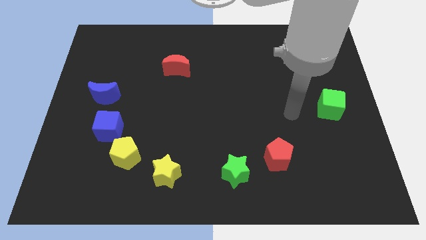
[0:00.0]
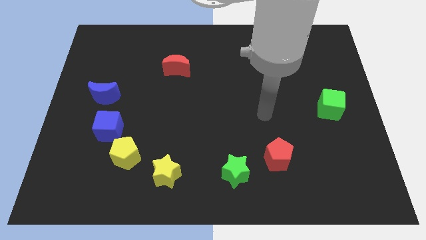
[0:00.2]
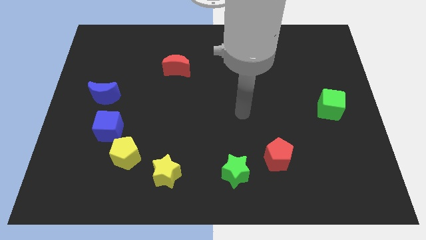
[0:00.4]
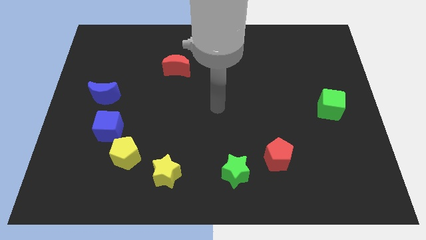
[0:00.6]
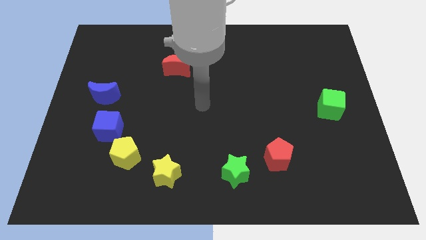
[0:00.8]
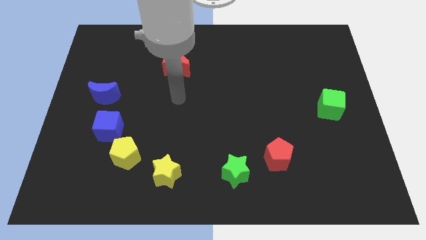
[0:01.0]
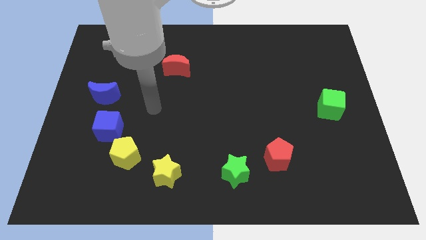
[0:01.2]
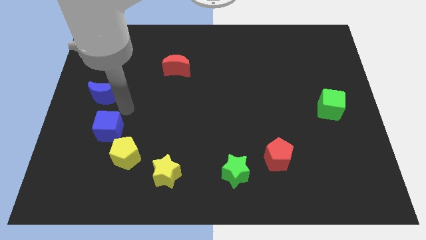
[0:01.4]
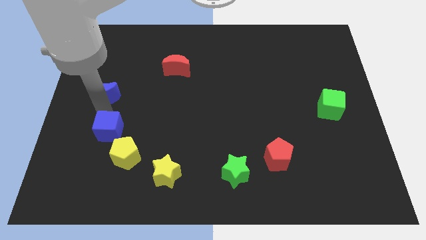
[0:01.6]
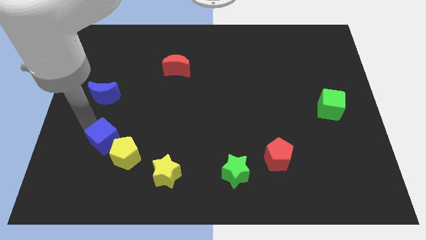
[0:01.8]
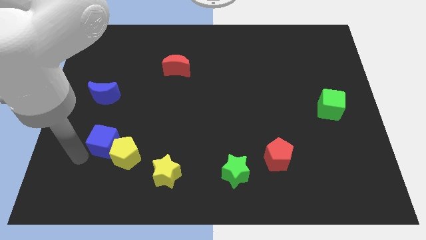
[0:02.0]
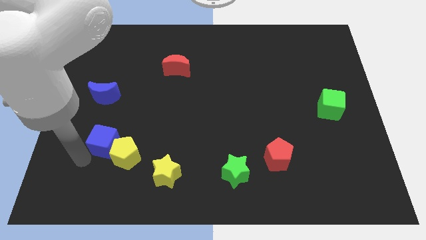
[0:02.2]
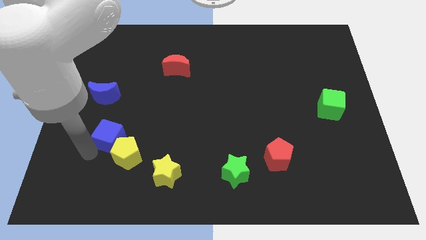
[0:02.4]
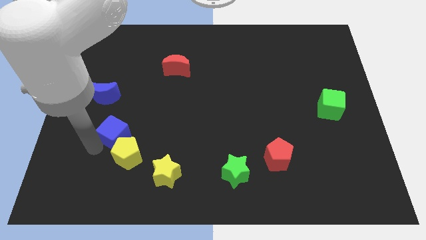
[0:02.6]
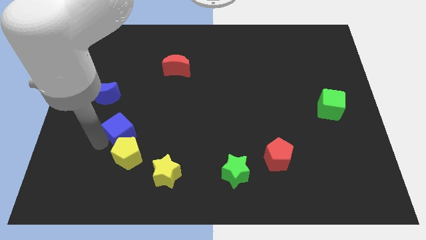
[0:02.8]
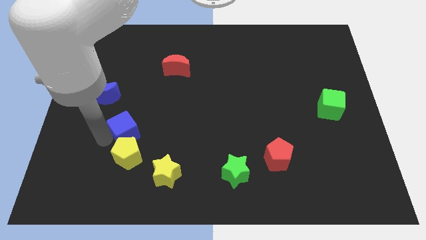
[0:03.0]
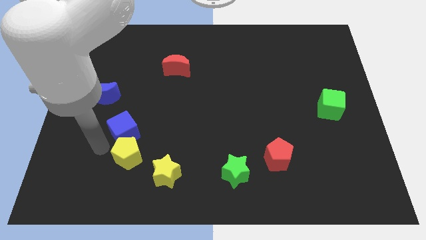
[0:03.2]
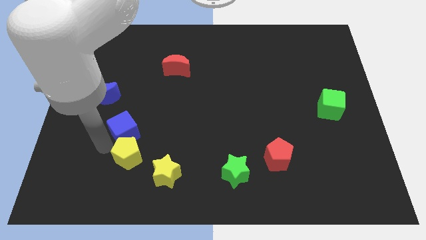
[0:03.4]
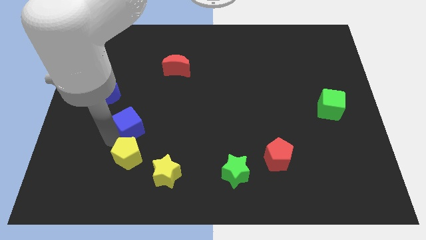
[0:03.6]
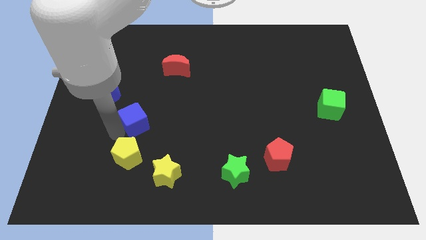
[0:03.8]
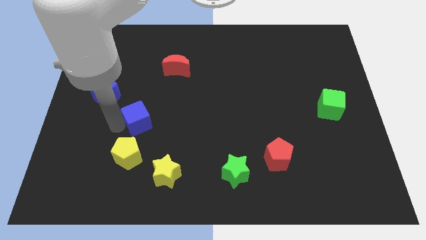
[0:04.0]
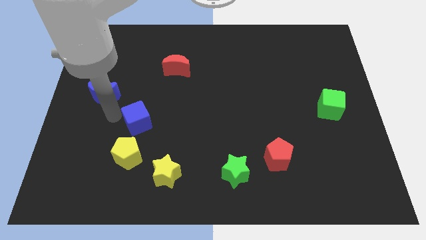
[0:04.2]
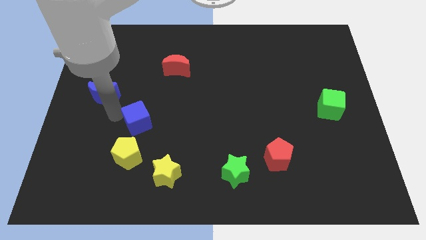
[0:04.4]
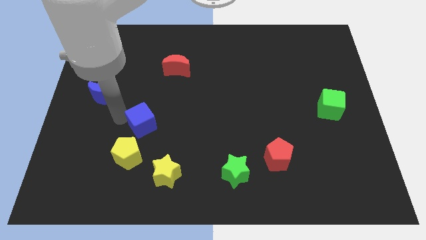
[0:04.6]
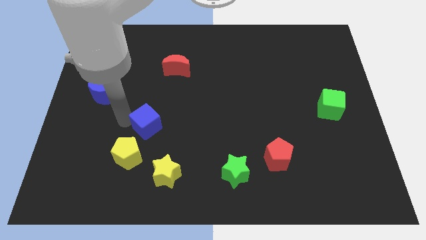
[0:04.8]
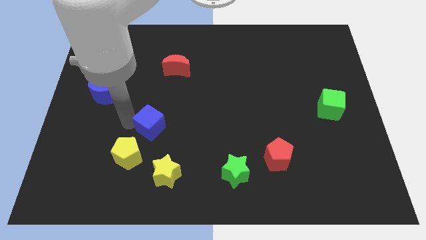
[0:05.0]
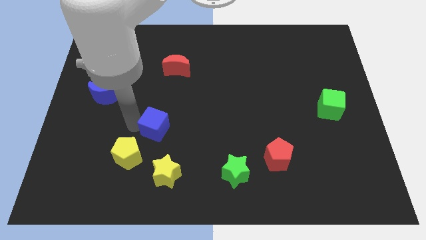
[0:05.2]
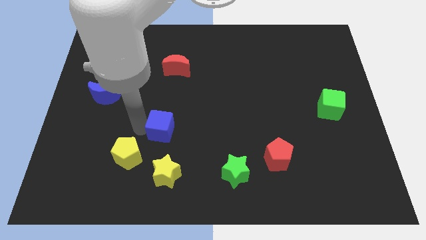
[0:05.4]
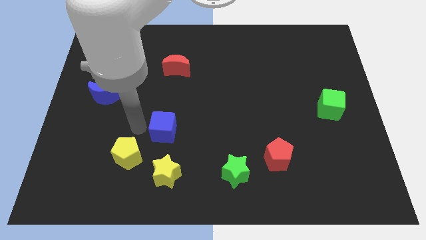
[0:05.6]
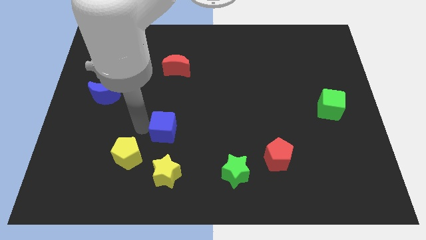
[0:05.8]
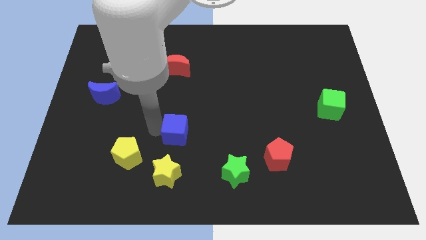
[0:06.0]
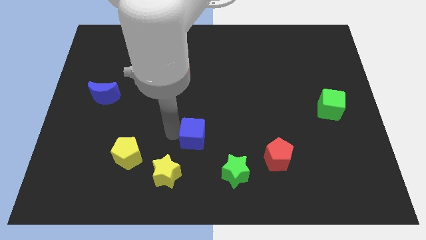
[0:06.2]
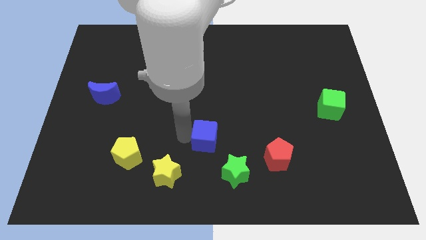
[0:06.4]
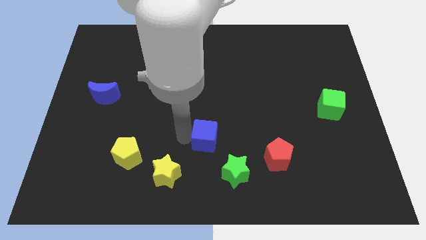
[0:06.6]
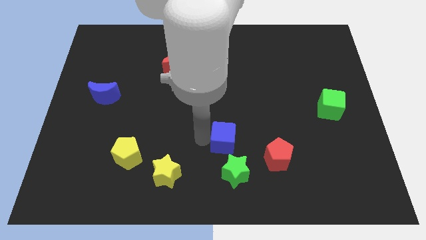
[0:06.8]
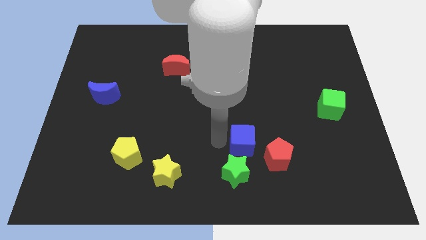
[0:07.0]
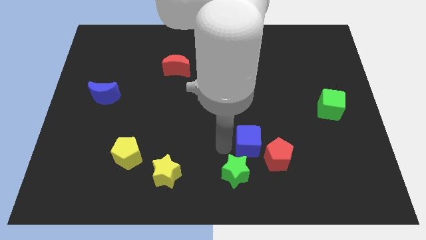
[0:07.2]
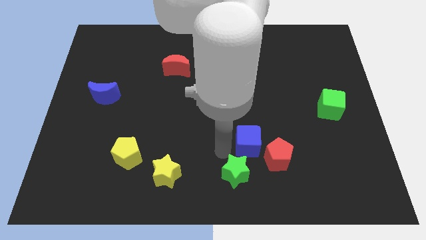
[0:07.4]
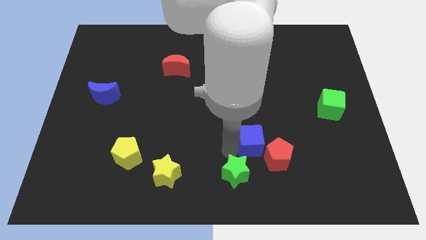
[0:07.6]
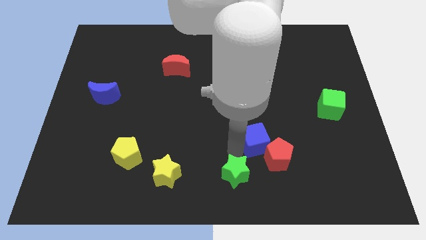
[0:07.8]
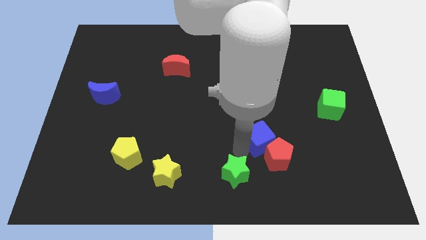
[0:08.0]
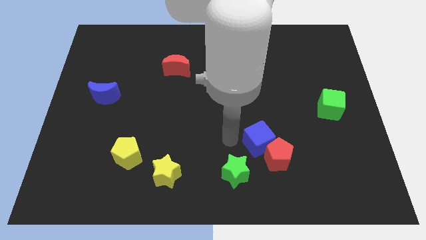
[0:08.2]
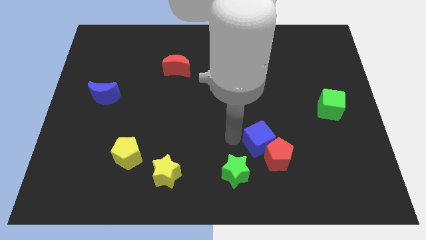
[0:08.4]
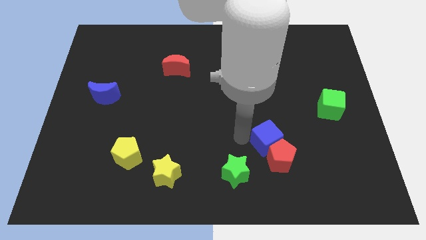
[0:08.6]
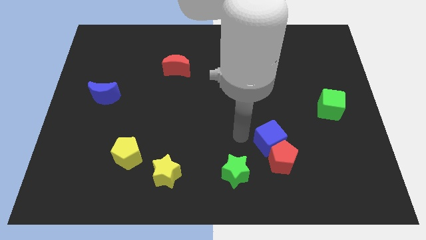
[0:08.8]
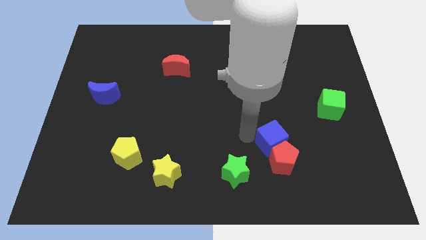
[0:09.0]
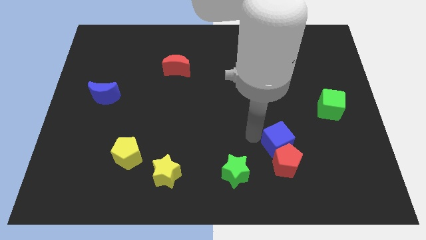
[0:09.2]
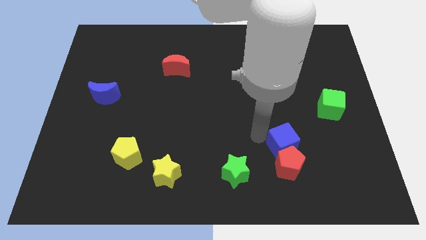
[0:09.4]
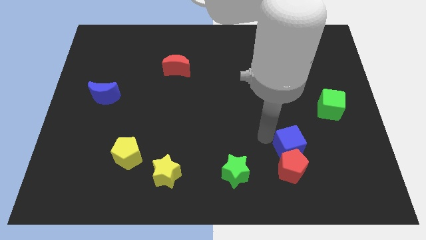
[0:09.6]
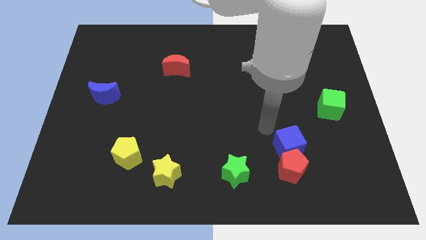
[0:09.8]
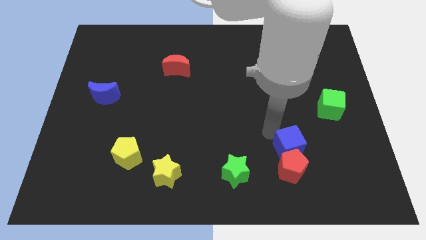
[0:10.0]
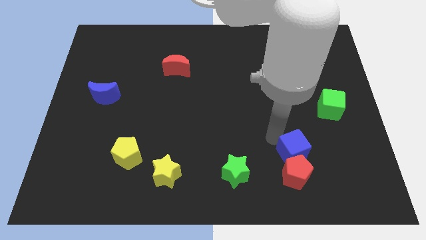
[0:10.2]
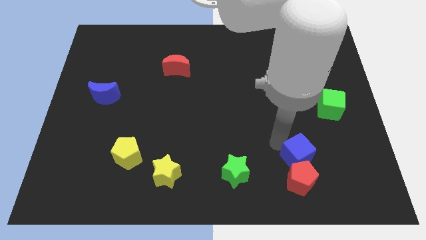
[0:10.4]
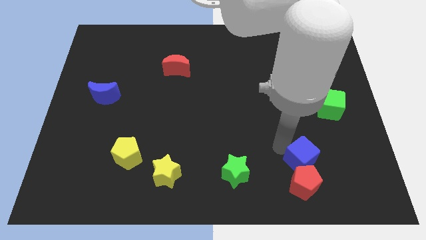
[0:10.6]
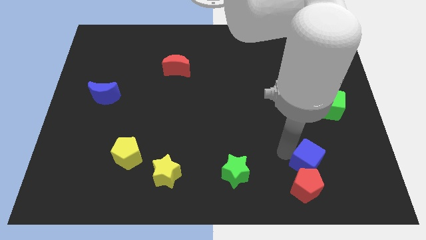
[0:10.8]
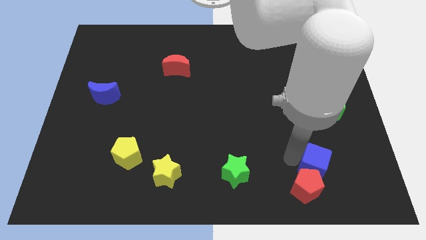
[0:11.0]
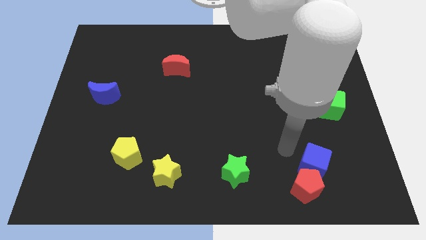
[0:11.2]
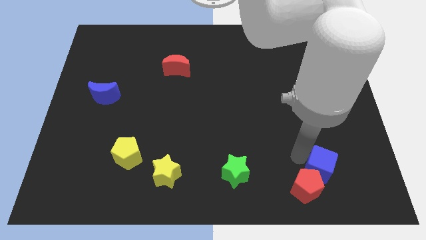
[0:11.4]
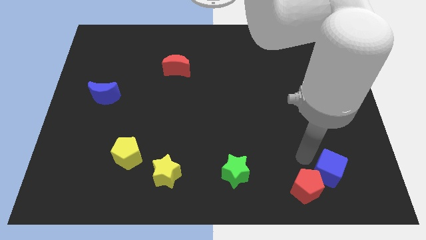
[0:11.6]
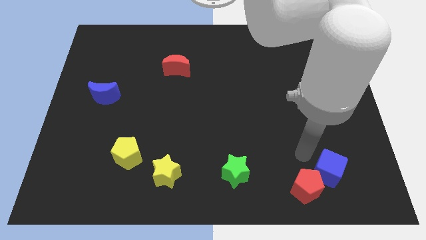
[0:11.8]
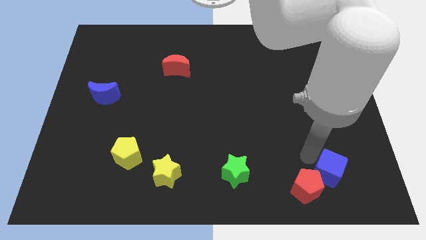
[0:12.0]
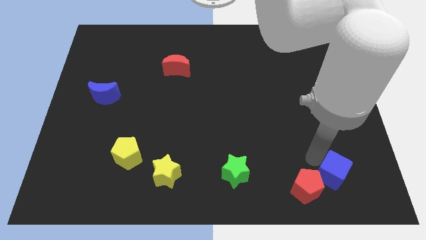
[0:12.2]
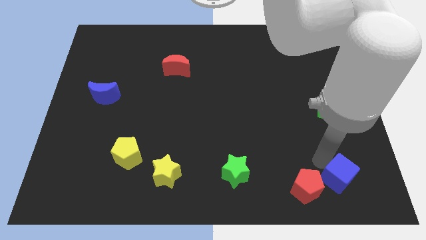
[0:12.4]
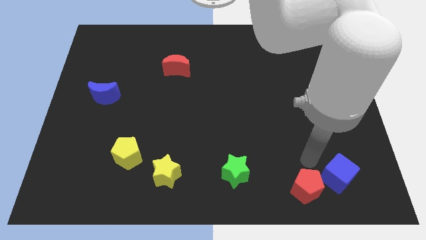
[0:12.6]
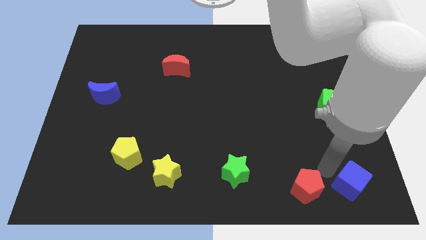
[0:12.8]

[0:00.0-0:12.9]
move the blue cube to the bottom right

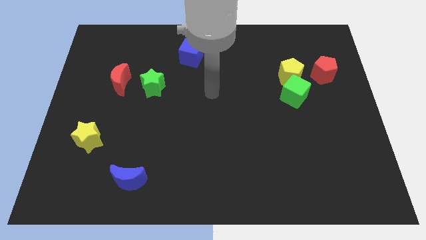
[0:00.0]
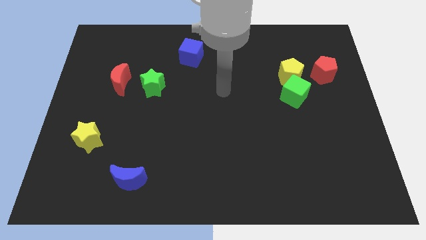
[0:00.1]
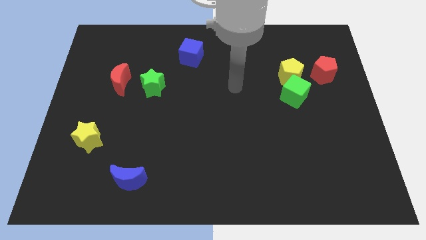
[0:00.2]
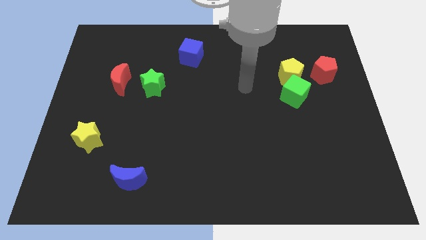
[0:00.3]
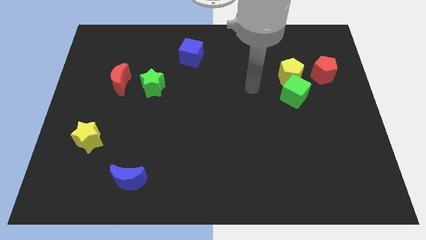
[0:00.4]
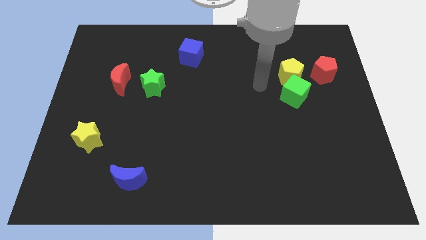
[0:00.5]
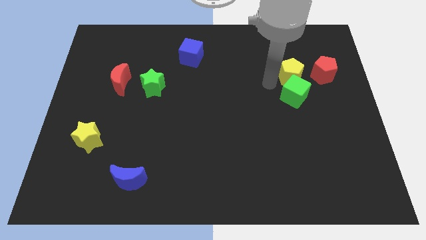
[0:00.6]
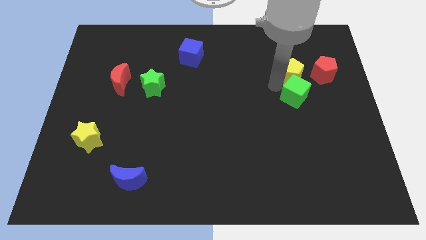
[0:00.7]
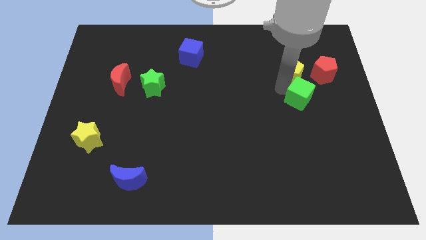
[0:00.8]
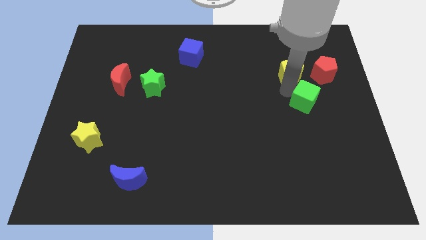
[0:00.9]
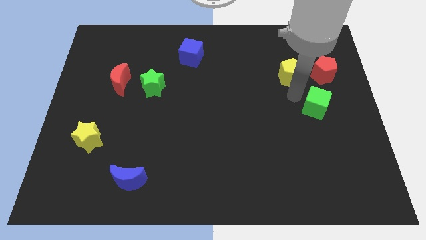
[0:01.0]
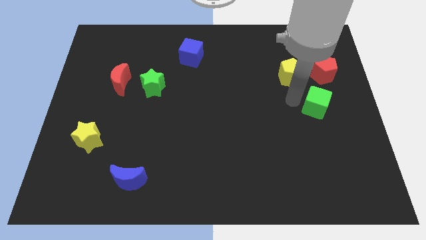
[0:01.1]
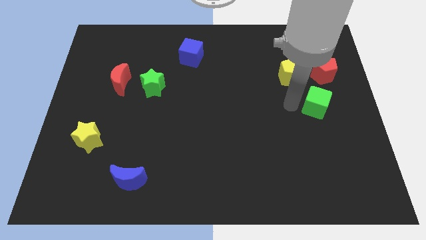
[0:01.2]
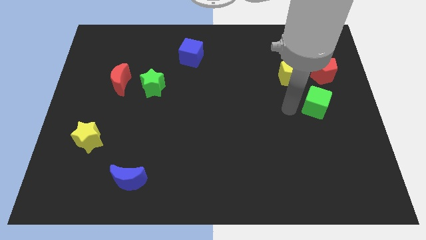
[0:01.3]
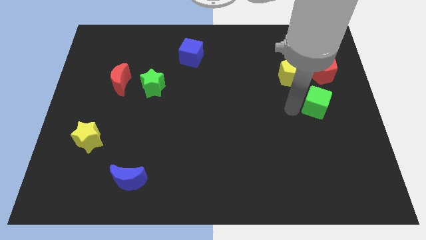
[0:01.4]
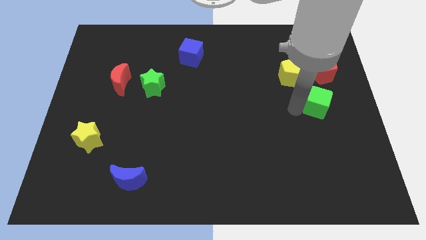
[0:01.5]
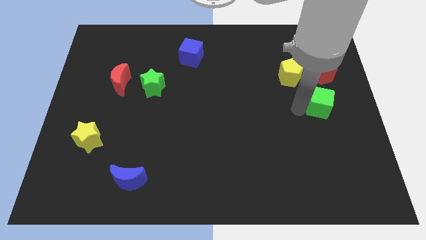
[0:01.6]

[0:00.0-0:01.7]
slide the green cube to the center right
